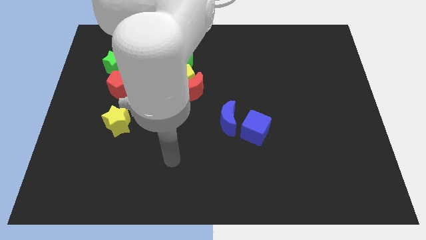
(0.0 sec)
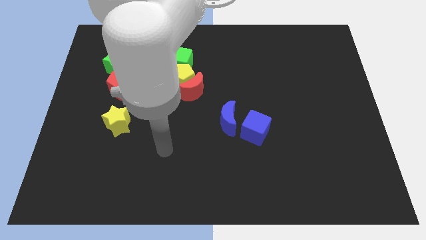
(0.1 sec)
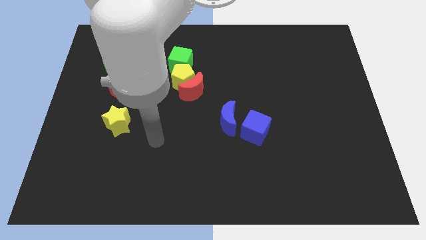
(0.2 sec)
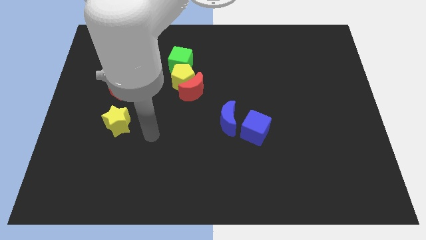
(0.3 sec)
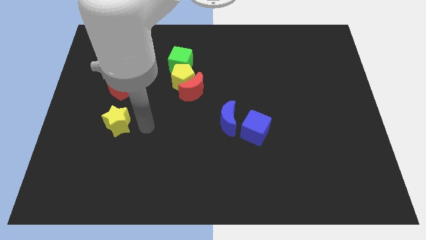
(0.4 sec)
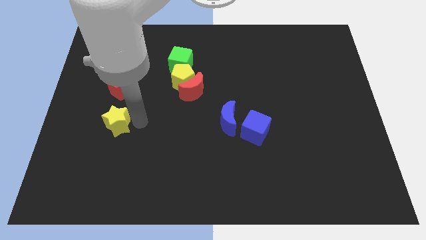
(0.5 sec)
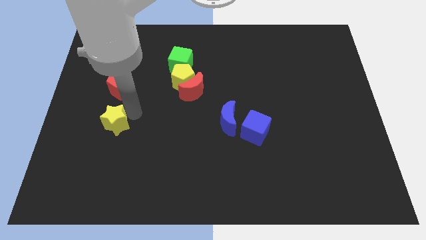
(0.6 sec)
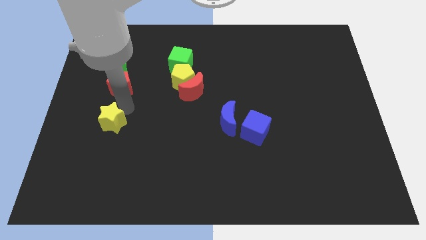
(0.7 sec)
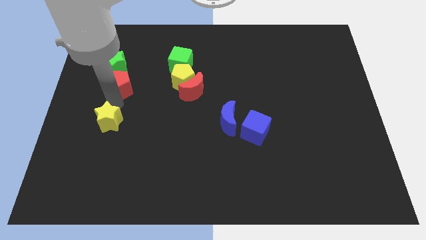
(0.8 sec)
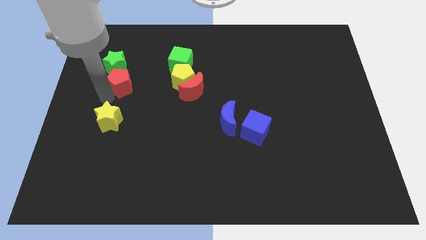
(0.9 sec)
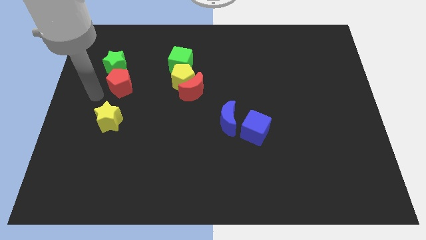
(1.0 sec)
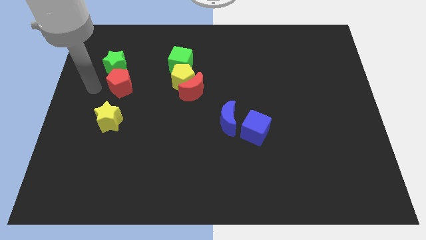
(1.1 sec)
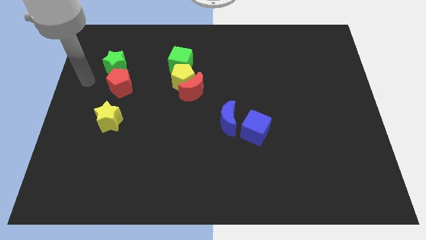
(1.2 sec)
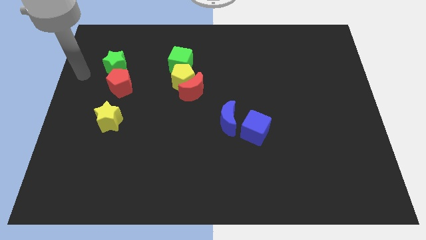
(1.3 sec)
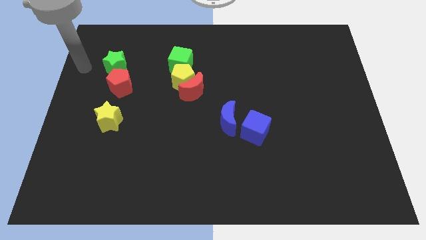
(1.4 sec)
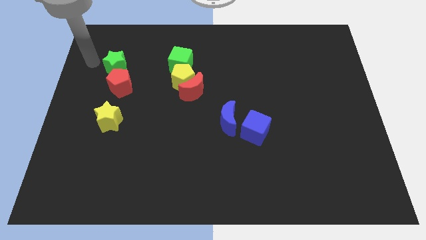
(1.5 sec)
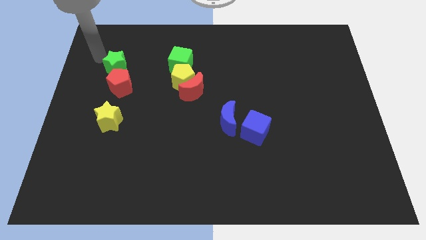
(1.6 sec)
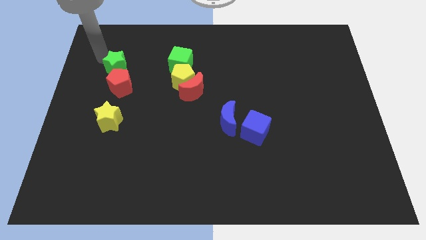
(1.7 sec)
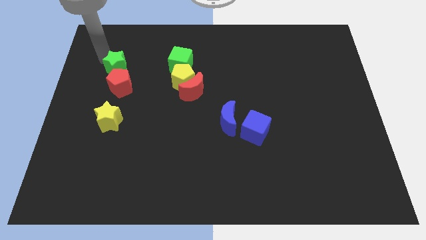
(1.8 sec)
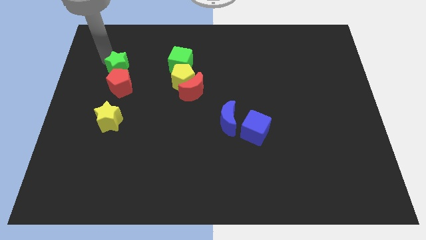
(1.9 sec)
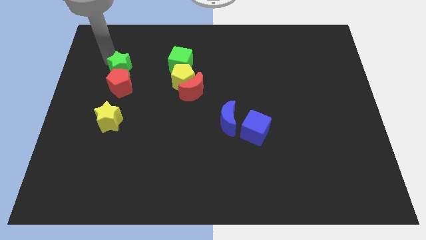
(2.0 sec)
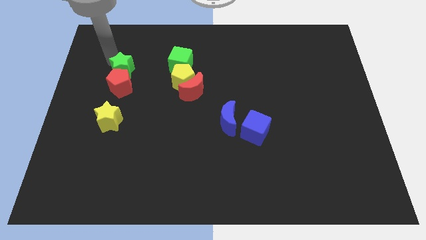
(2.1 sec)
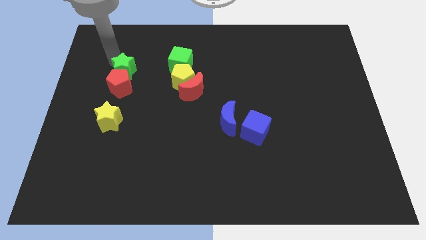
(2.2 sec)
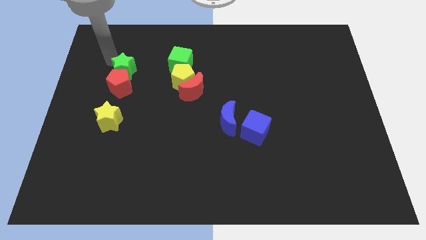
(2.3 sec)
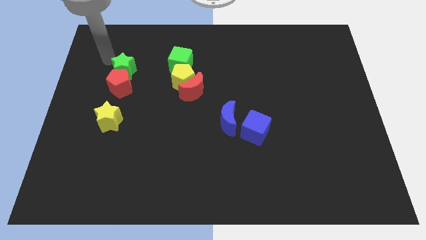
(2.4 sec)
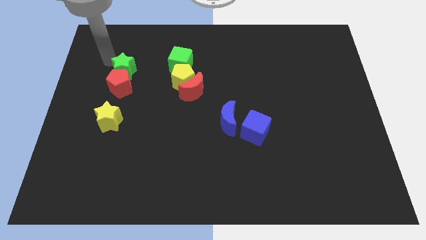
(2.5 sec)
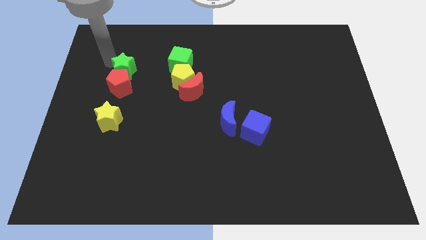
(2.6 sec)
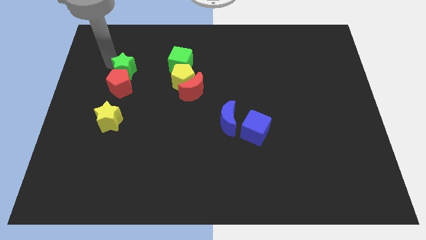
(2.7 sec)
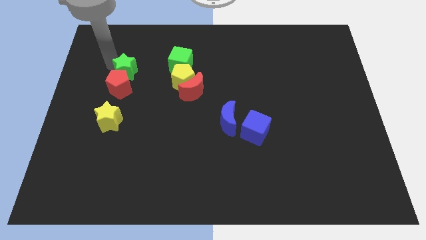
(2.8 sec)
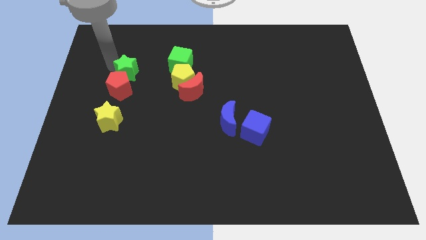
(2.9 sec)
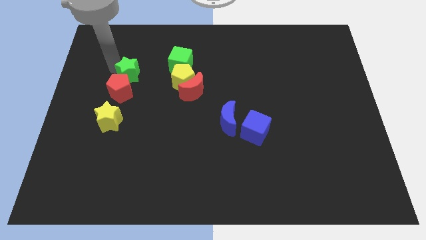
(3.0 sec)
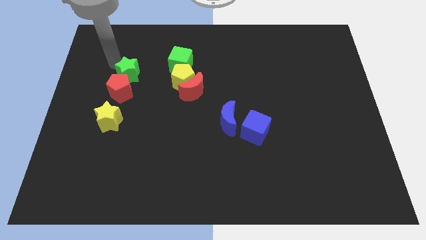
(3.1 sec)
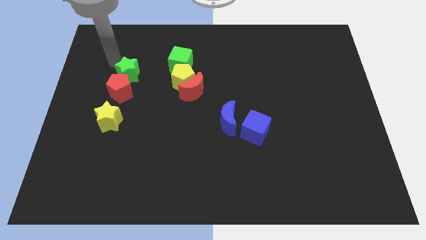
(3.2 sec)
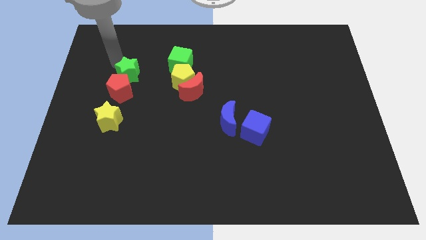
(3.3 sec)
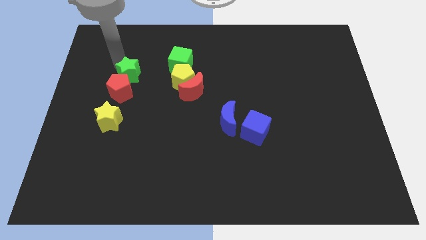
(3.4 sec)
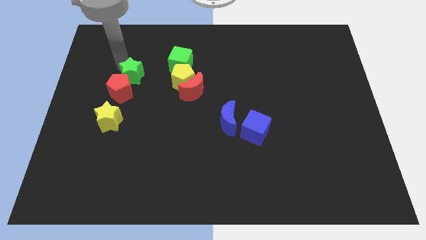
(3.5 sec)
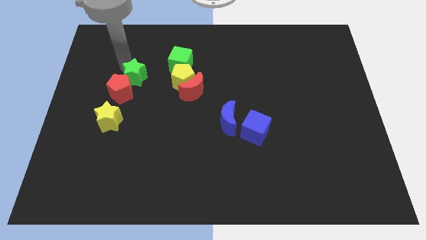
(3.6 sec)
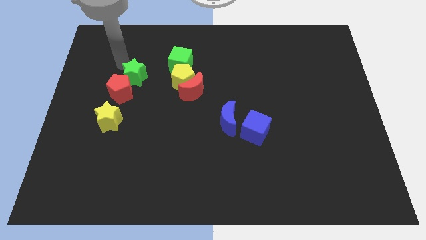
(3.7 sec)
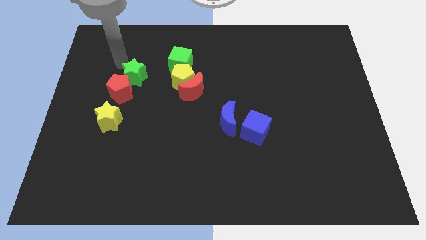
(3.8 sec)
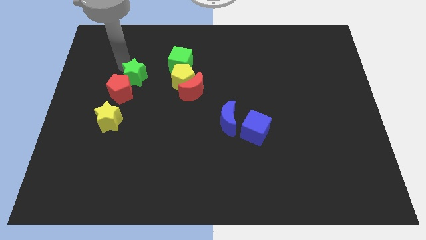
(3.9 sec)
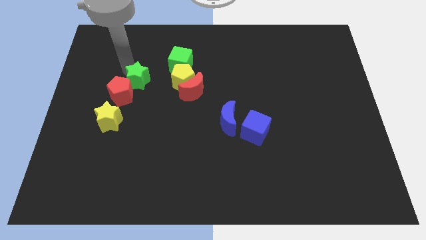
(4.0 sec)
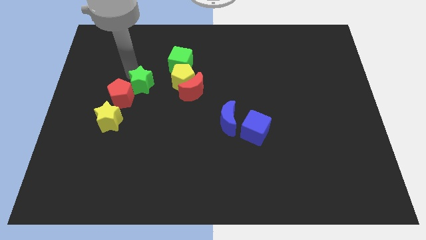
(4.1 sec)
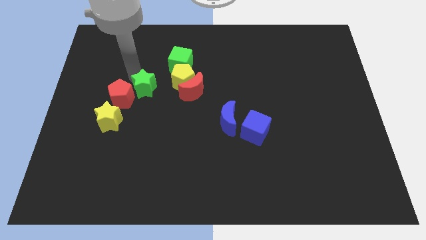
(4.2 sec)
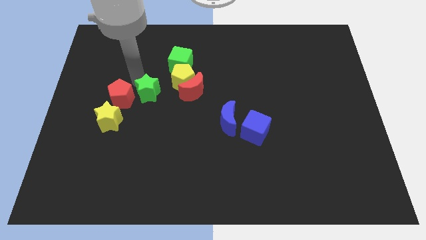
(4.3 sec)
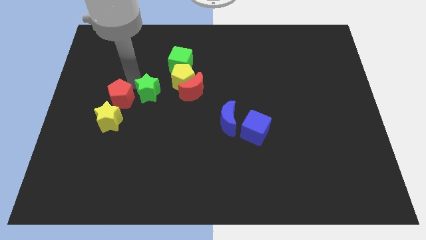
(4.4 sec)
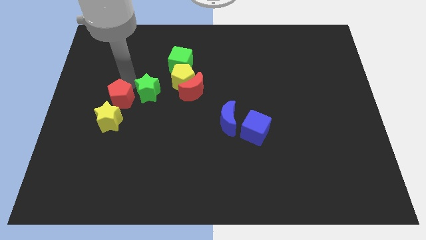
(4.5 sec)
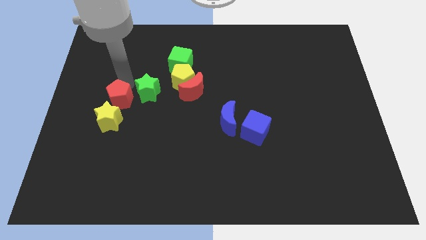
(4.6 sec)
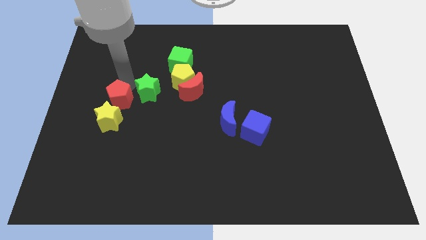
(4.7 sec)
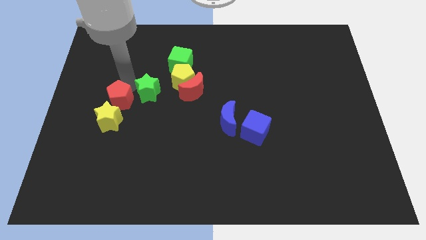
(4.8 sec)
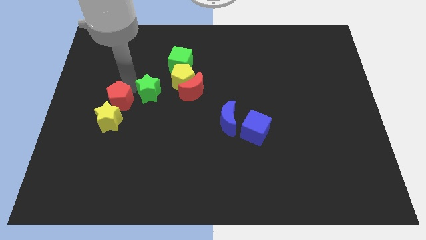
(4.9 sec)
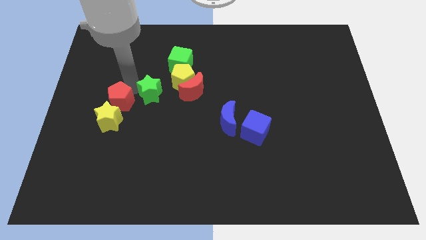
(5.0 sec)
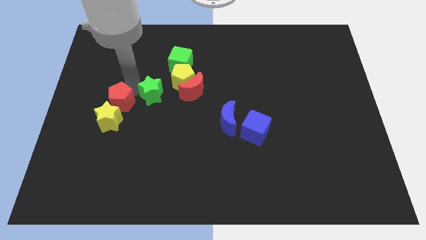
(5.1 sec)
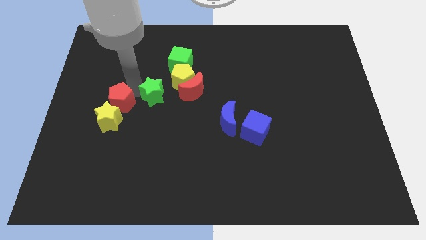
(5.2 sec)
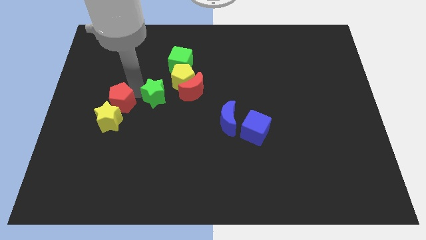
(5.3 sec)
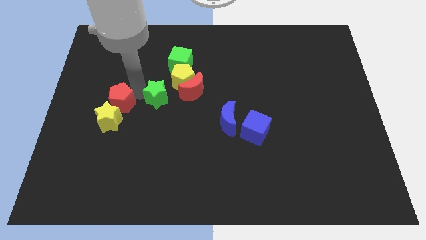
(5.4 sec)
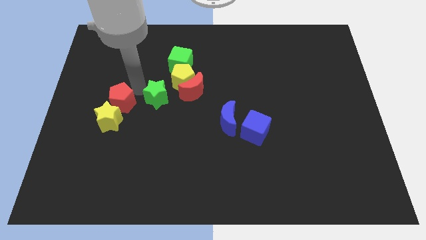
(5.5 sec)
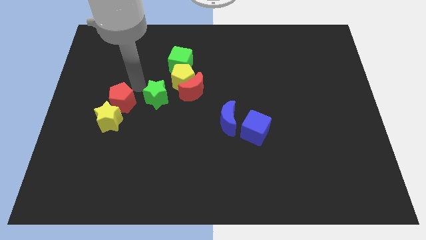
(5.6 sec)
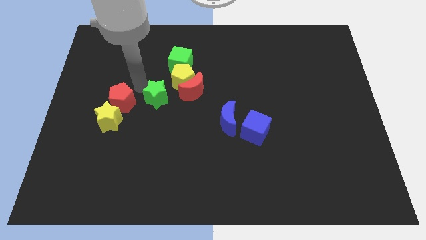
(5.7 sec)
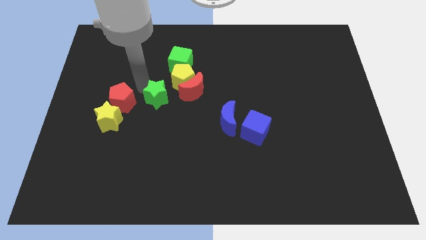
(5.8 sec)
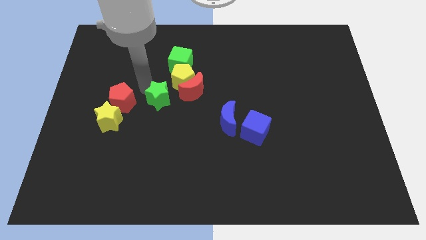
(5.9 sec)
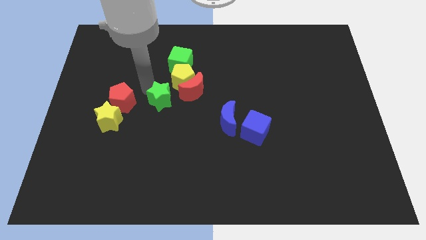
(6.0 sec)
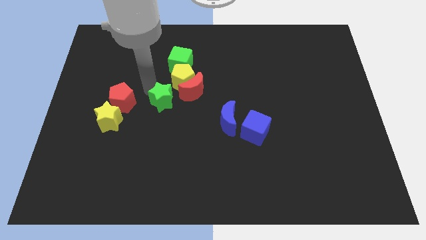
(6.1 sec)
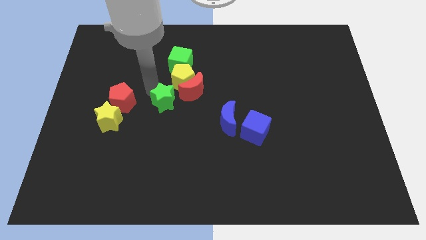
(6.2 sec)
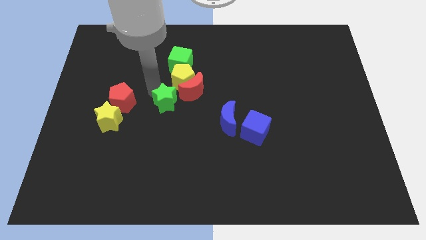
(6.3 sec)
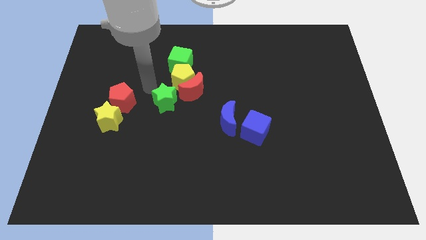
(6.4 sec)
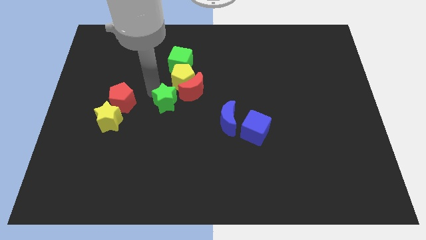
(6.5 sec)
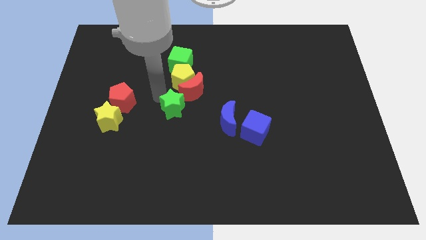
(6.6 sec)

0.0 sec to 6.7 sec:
slide the green star down and to the right

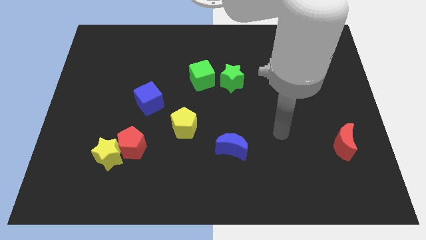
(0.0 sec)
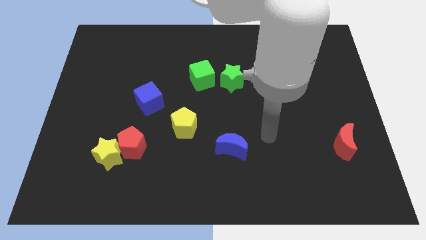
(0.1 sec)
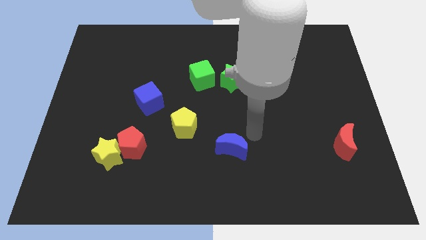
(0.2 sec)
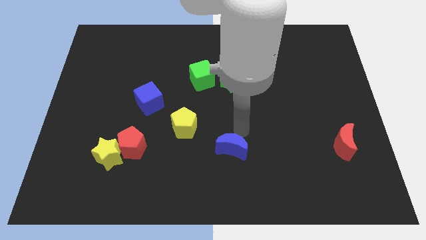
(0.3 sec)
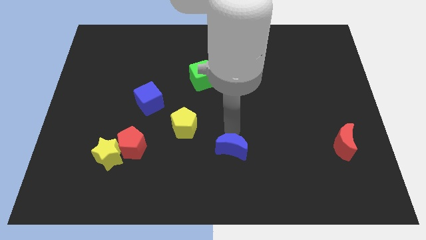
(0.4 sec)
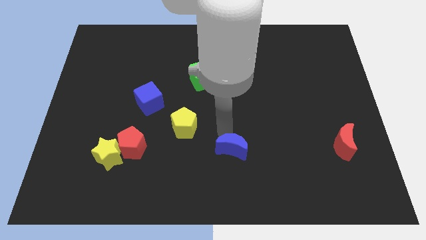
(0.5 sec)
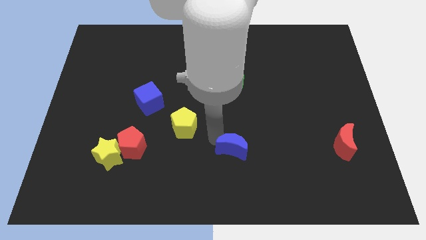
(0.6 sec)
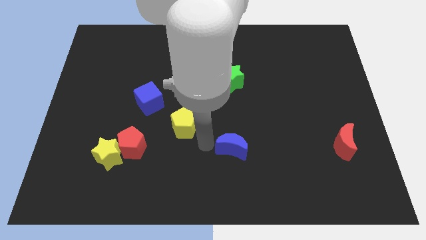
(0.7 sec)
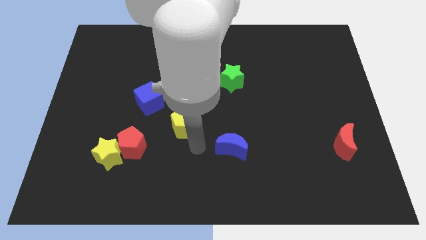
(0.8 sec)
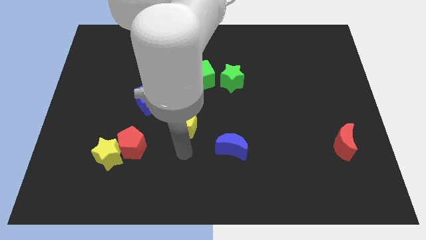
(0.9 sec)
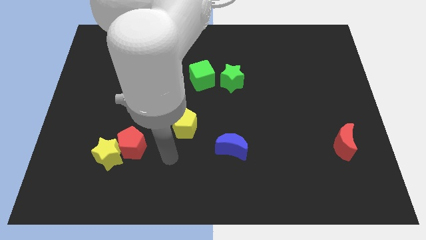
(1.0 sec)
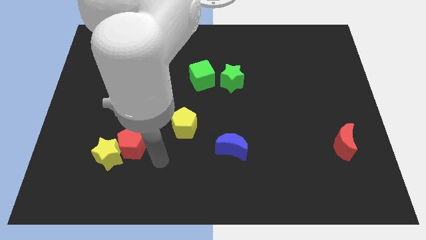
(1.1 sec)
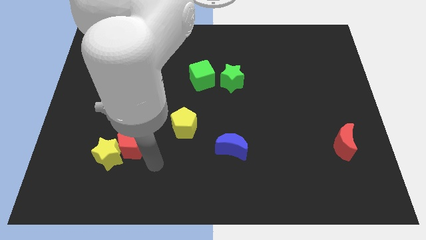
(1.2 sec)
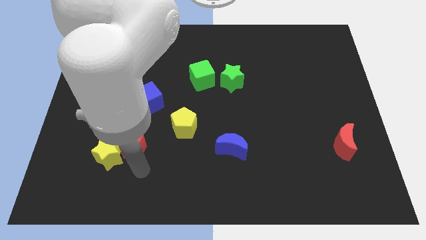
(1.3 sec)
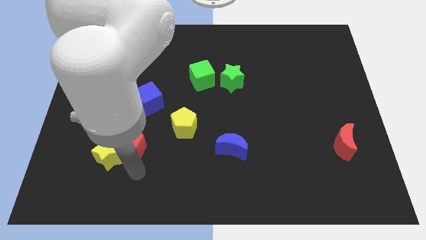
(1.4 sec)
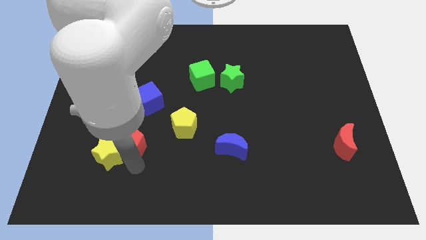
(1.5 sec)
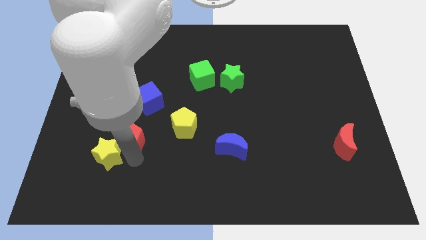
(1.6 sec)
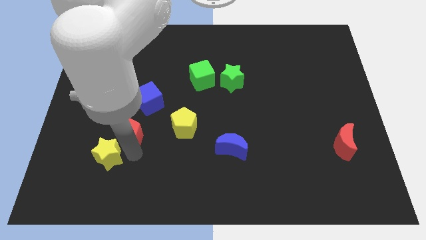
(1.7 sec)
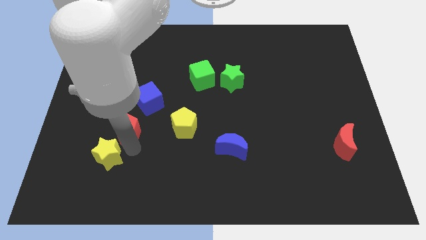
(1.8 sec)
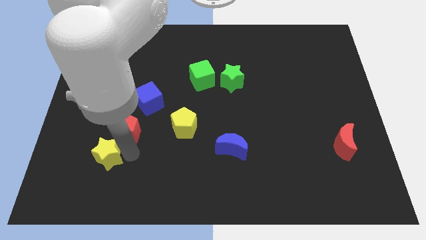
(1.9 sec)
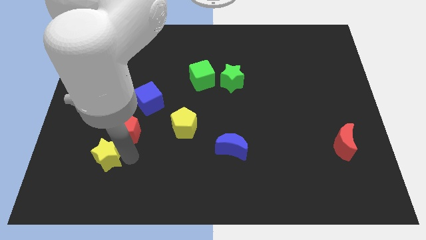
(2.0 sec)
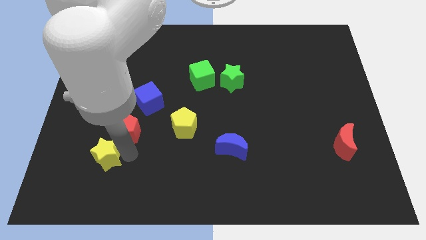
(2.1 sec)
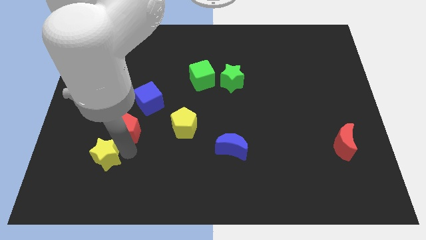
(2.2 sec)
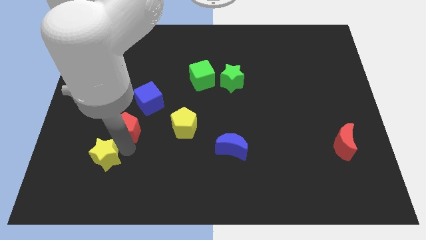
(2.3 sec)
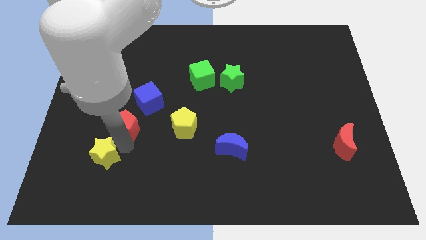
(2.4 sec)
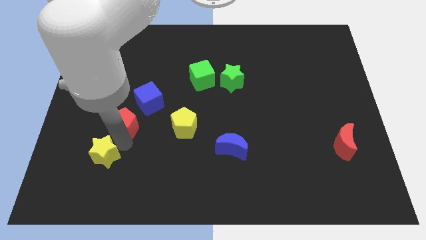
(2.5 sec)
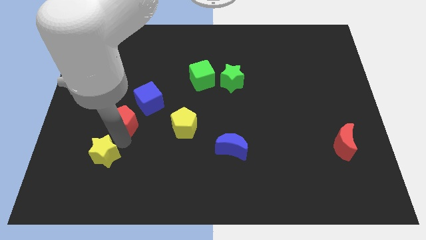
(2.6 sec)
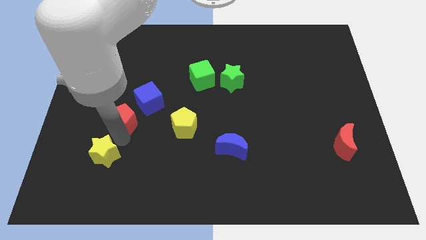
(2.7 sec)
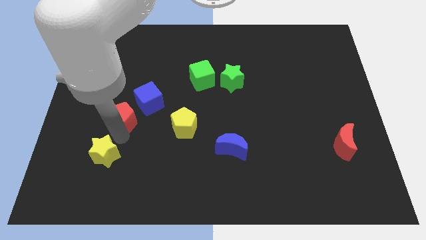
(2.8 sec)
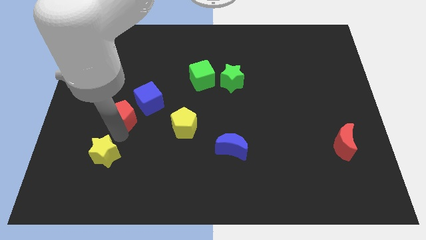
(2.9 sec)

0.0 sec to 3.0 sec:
push the red pentagon a little bit up
